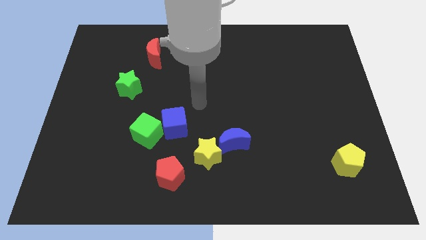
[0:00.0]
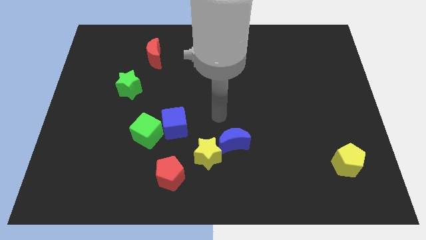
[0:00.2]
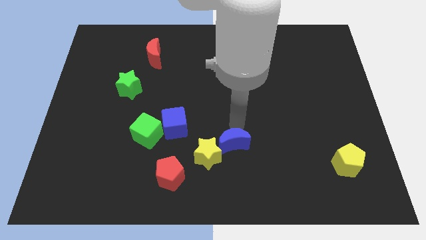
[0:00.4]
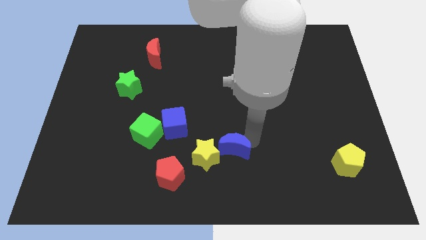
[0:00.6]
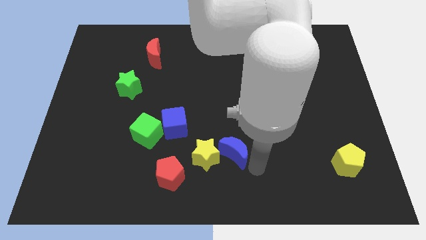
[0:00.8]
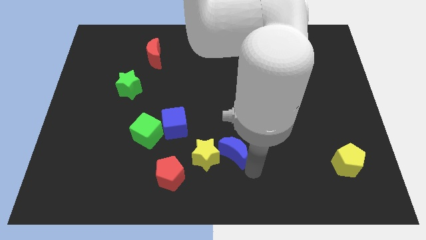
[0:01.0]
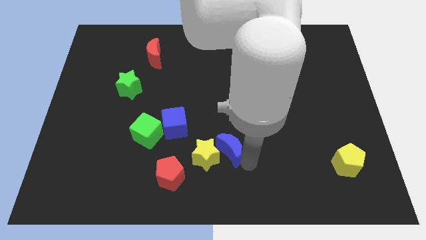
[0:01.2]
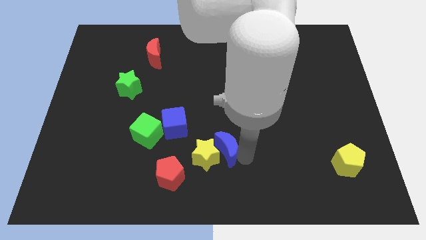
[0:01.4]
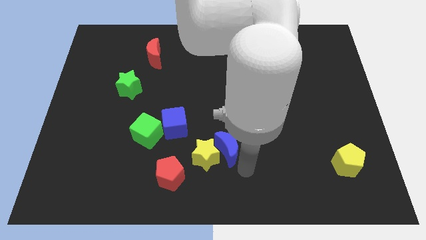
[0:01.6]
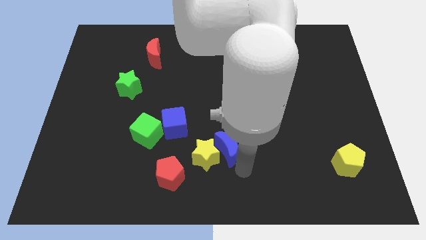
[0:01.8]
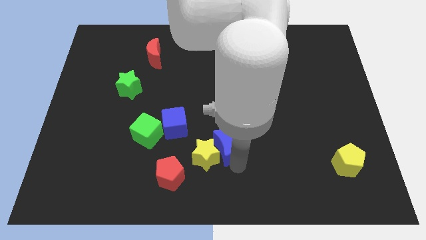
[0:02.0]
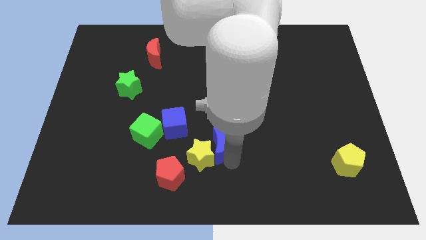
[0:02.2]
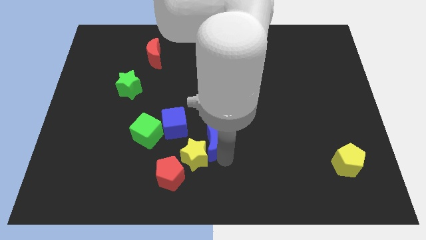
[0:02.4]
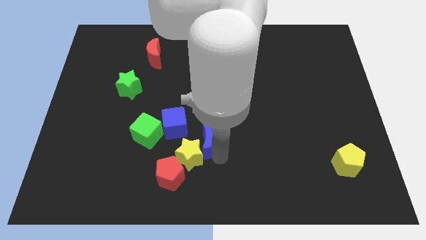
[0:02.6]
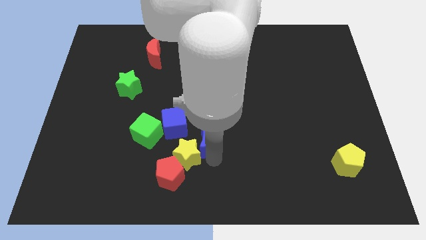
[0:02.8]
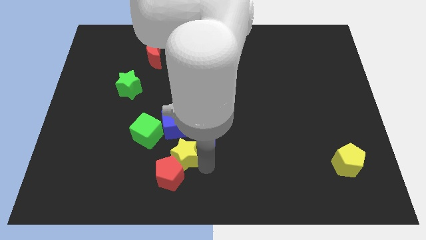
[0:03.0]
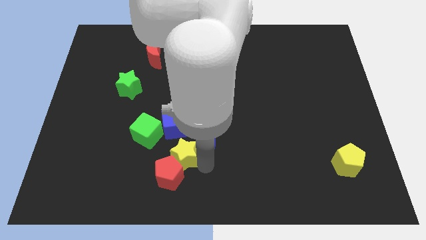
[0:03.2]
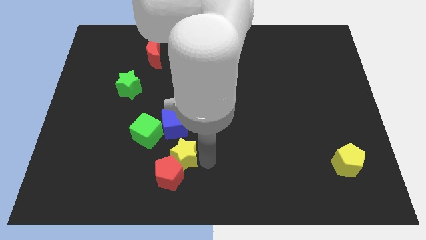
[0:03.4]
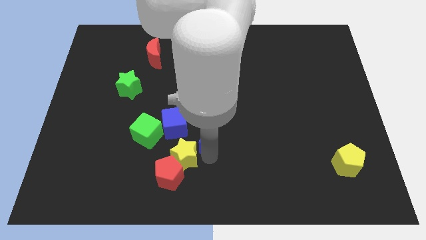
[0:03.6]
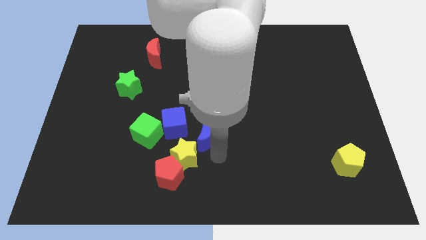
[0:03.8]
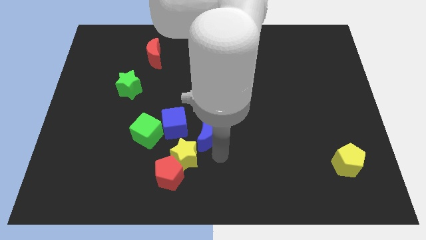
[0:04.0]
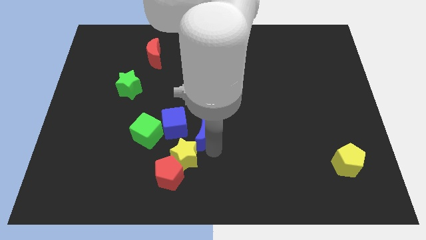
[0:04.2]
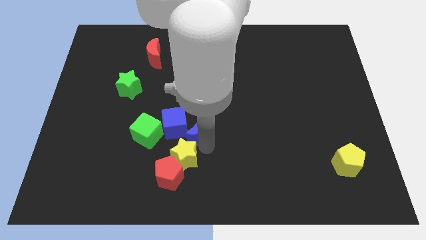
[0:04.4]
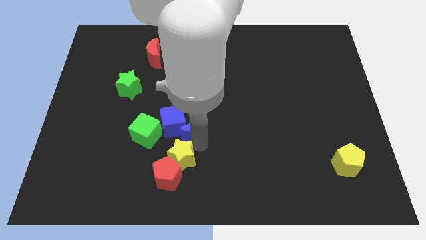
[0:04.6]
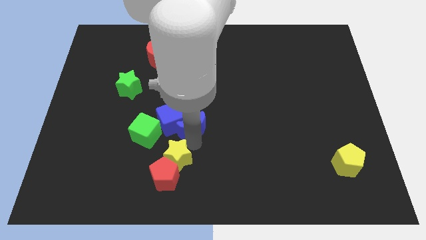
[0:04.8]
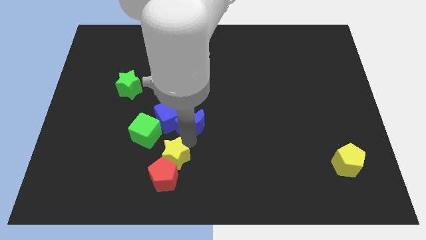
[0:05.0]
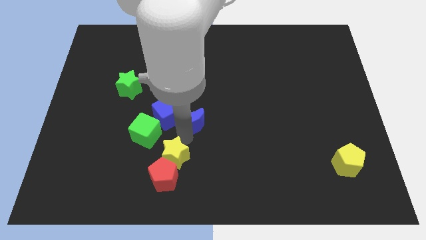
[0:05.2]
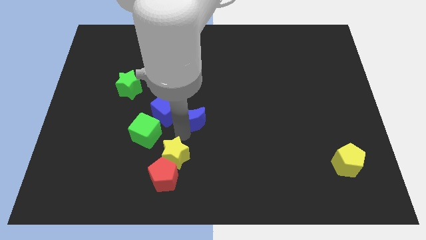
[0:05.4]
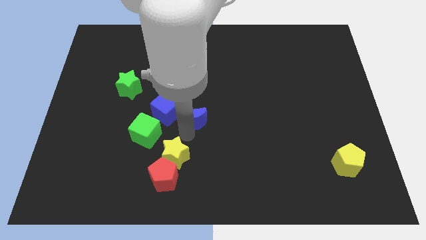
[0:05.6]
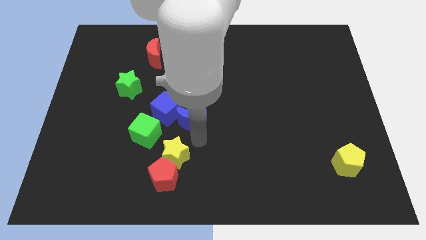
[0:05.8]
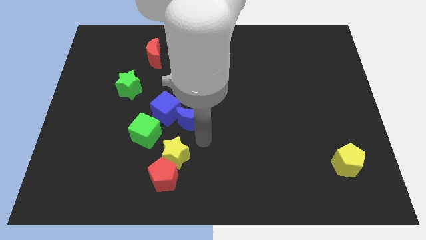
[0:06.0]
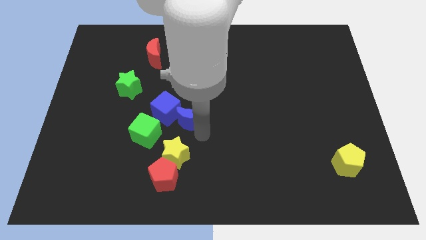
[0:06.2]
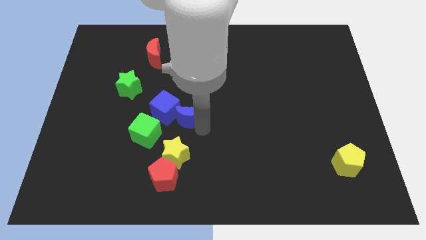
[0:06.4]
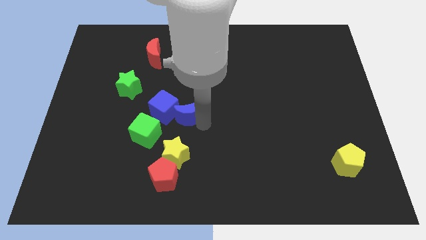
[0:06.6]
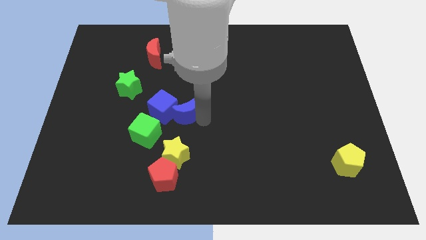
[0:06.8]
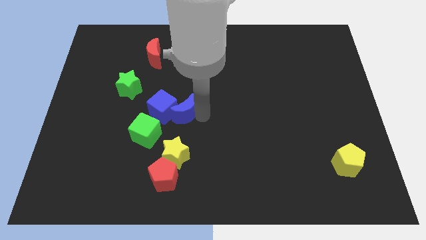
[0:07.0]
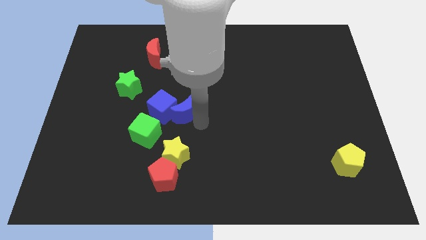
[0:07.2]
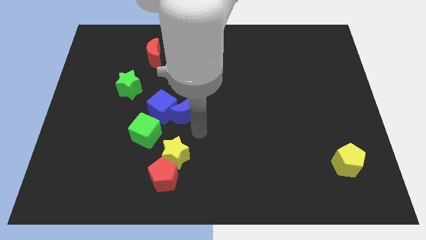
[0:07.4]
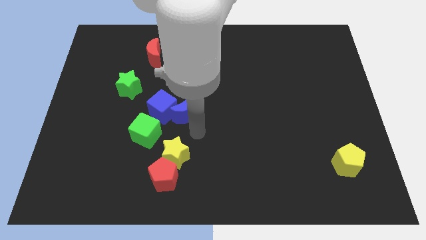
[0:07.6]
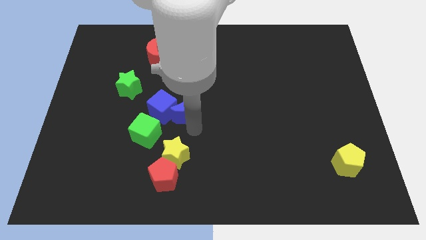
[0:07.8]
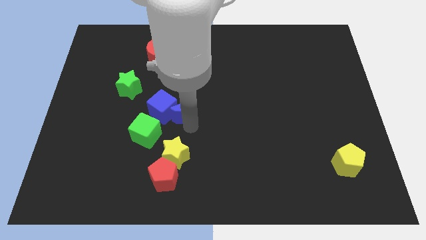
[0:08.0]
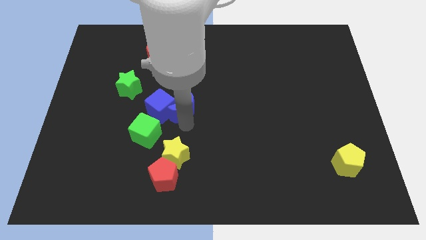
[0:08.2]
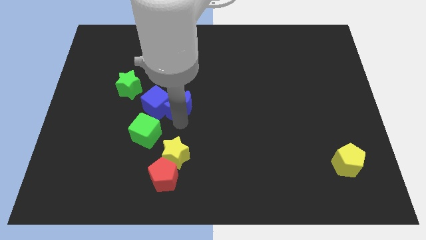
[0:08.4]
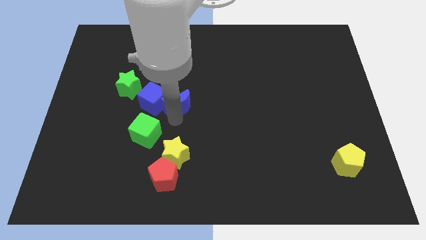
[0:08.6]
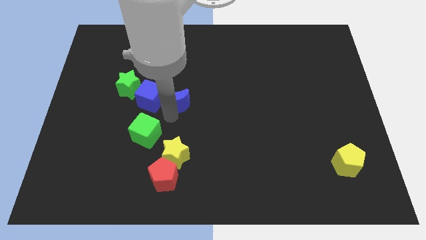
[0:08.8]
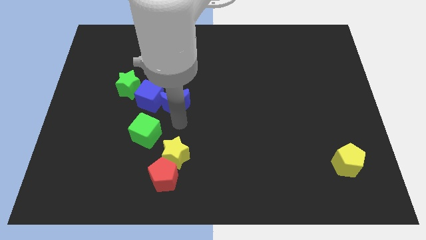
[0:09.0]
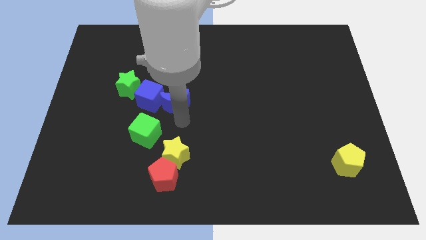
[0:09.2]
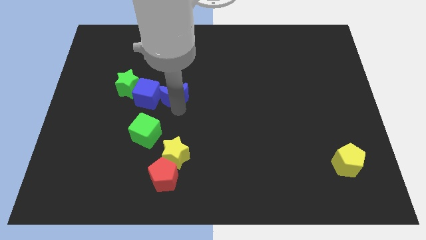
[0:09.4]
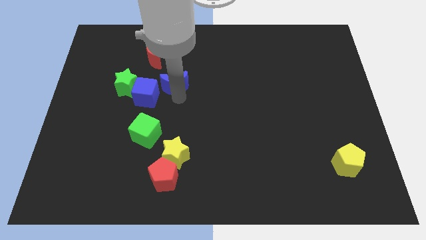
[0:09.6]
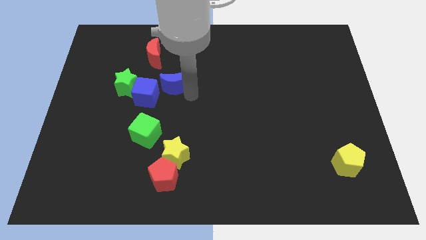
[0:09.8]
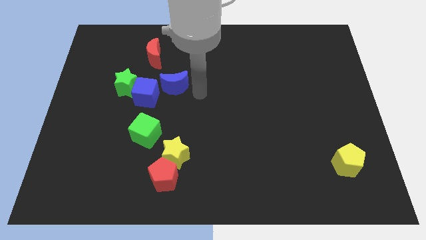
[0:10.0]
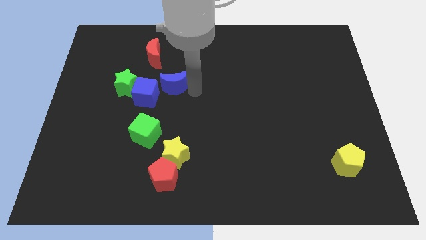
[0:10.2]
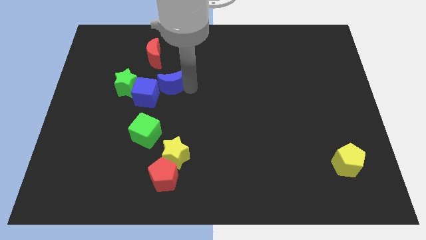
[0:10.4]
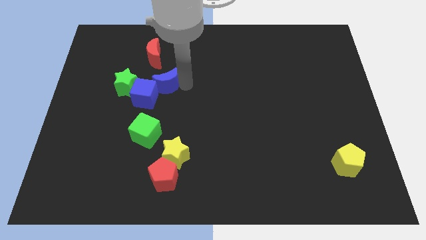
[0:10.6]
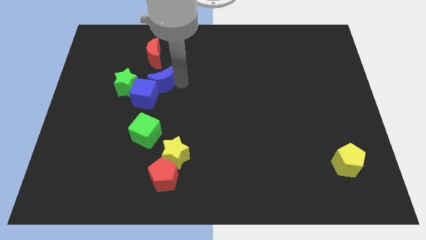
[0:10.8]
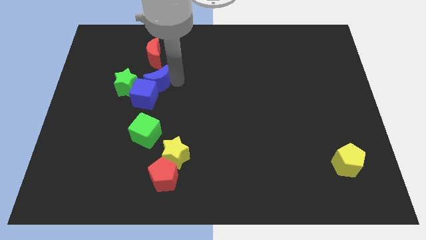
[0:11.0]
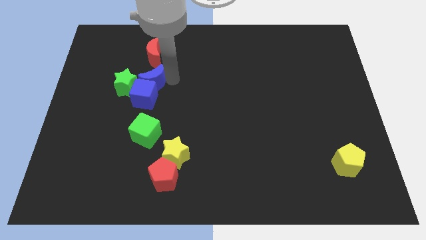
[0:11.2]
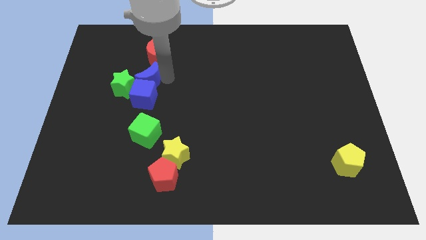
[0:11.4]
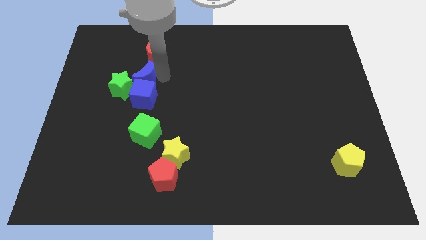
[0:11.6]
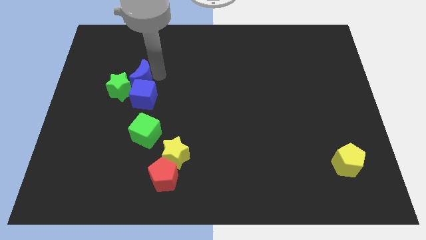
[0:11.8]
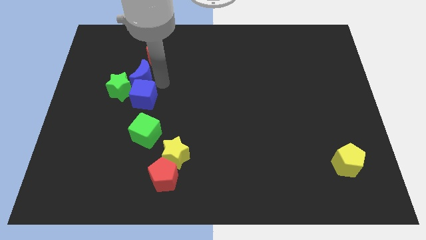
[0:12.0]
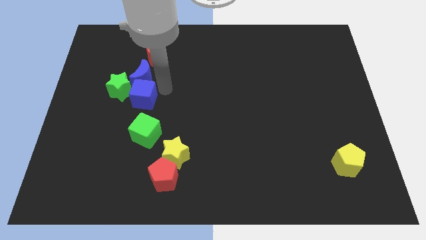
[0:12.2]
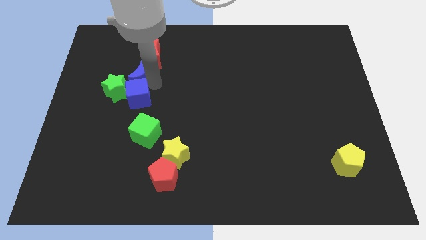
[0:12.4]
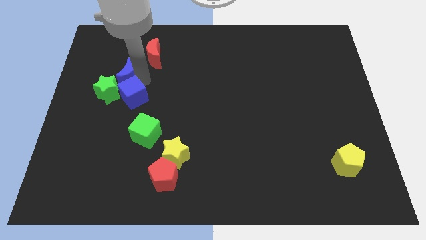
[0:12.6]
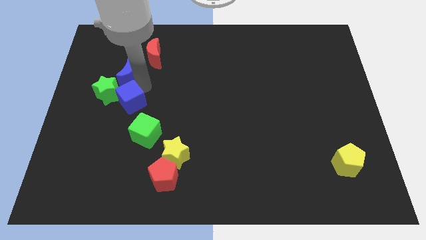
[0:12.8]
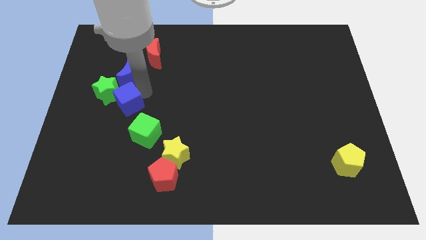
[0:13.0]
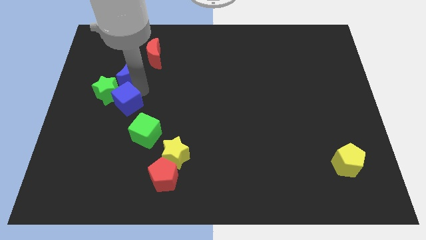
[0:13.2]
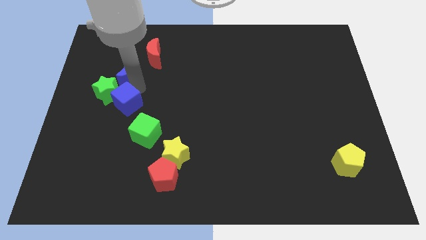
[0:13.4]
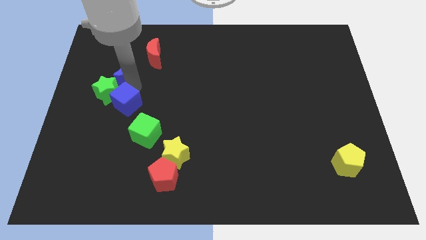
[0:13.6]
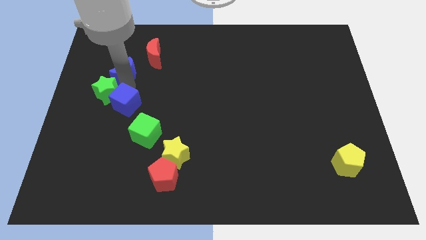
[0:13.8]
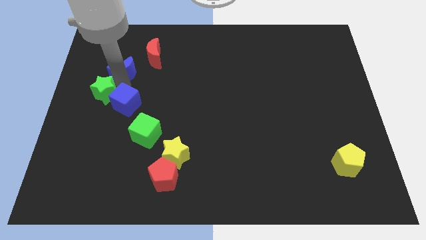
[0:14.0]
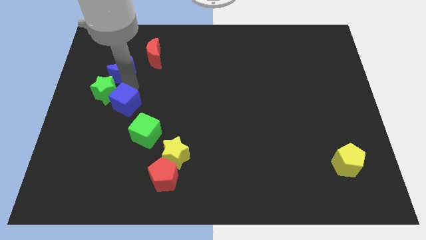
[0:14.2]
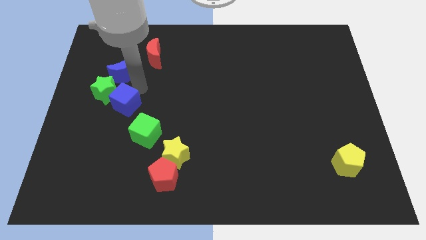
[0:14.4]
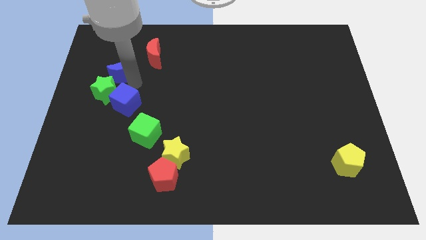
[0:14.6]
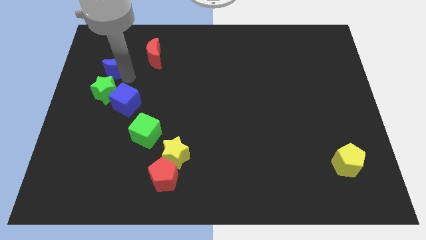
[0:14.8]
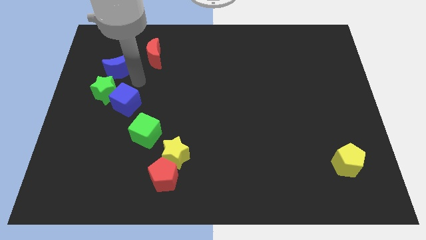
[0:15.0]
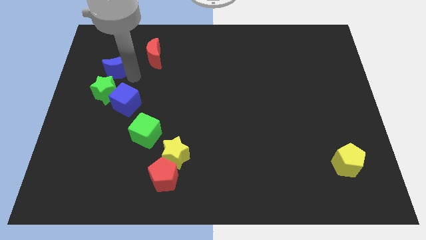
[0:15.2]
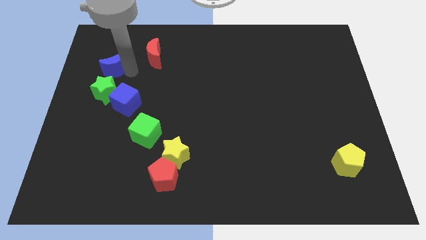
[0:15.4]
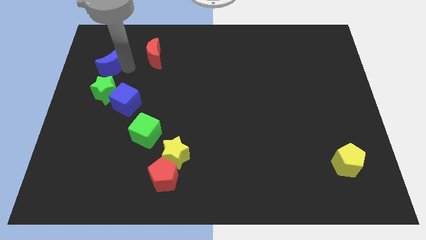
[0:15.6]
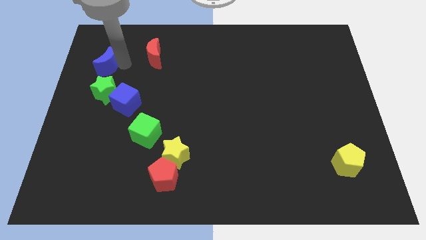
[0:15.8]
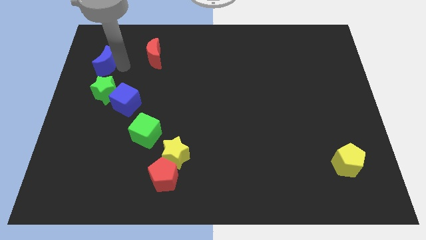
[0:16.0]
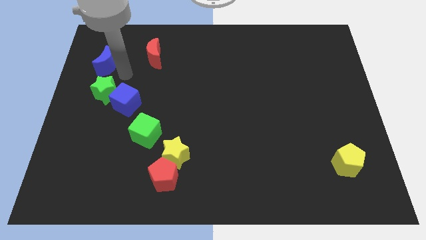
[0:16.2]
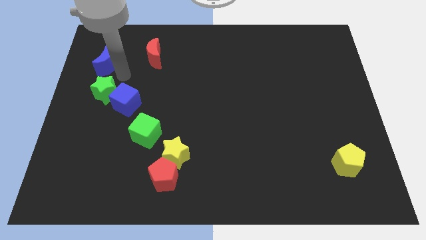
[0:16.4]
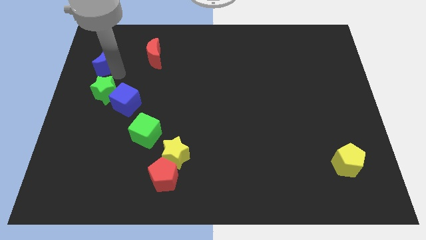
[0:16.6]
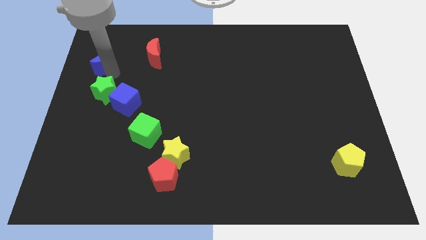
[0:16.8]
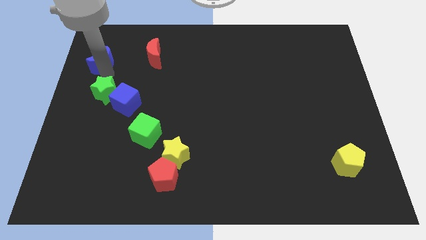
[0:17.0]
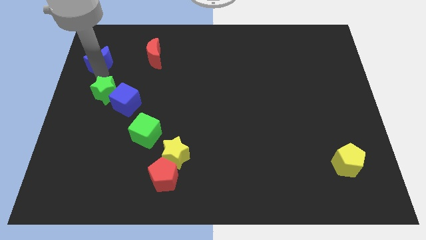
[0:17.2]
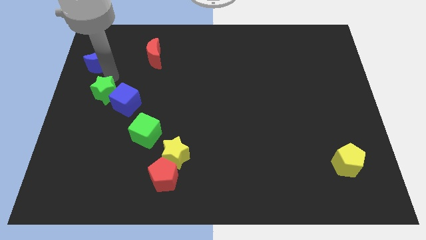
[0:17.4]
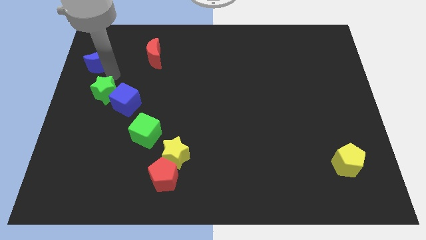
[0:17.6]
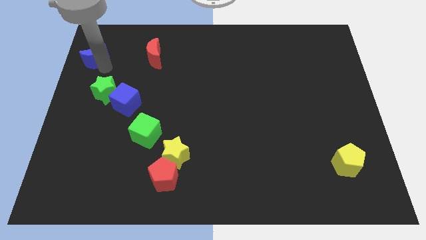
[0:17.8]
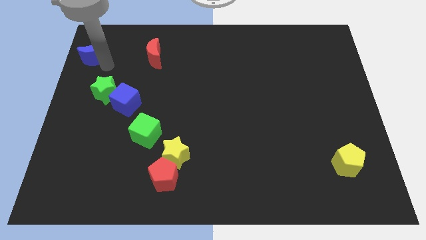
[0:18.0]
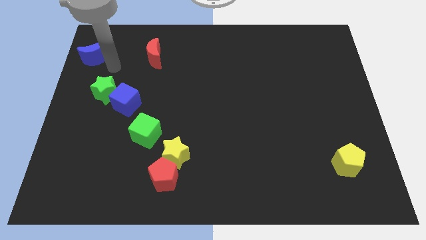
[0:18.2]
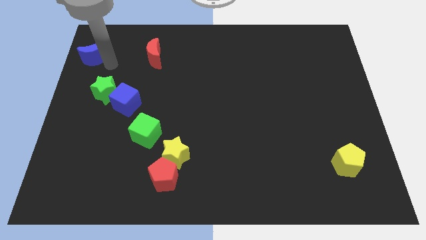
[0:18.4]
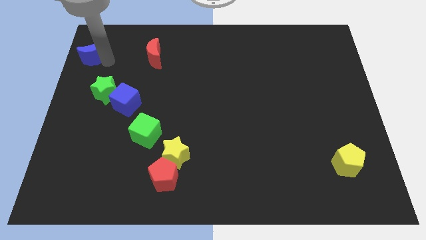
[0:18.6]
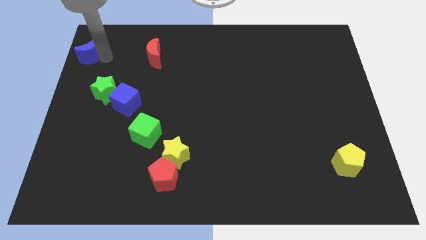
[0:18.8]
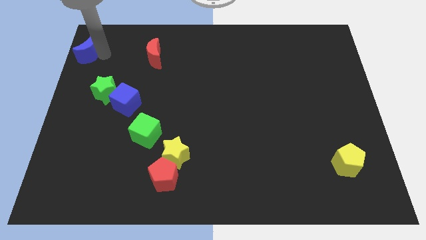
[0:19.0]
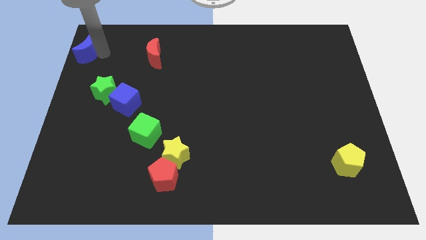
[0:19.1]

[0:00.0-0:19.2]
push the blue moon to the top left
